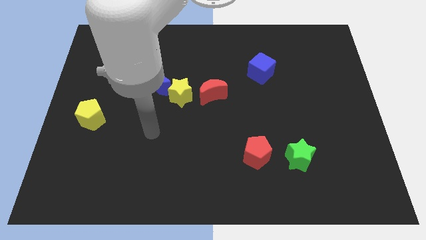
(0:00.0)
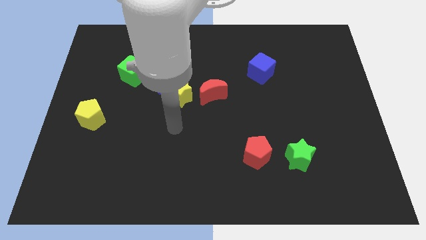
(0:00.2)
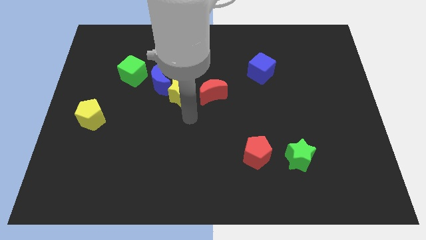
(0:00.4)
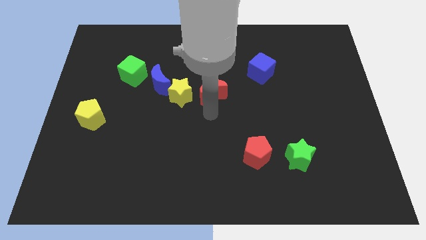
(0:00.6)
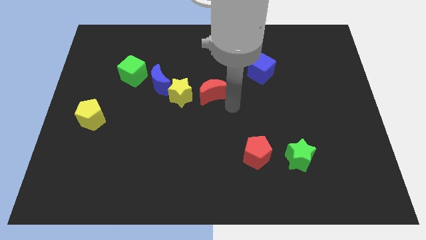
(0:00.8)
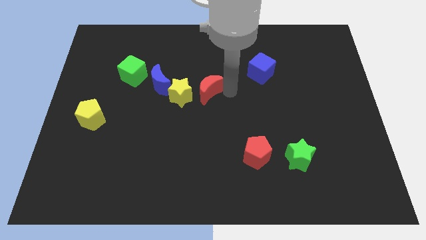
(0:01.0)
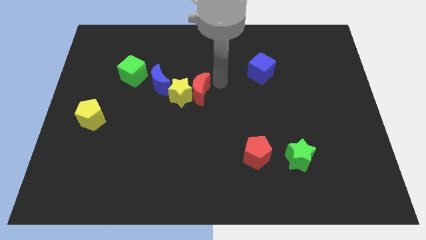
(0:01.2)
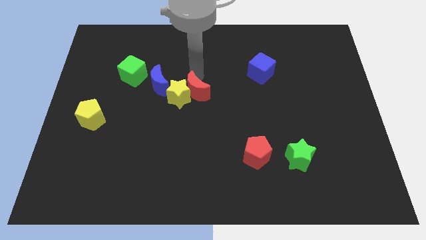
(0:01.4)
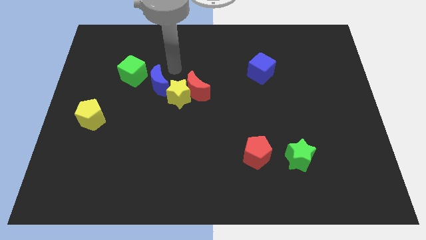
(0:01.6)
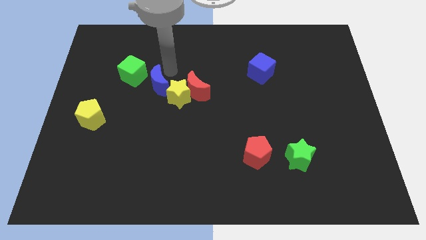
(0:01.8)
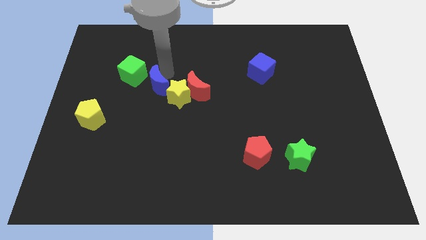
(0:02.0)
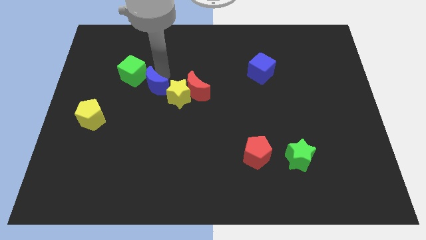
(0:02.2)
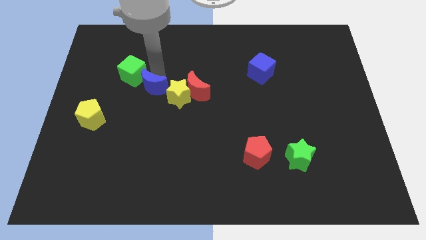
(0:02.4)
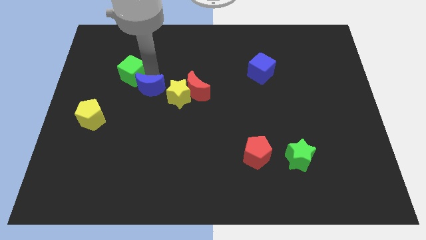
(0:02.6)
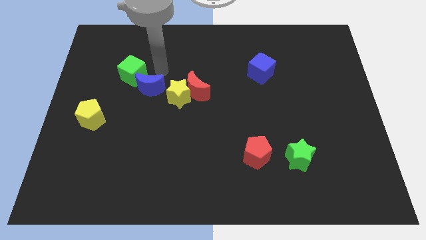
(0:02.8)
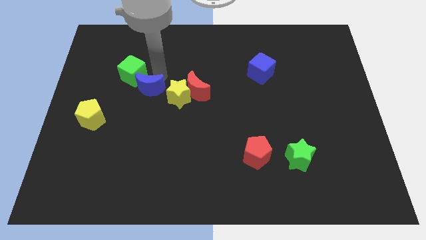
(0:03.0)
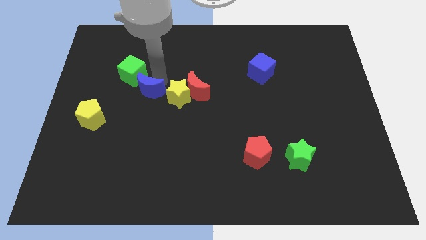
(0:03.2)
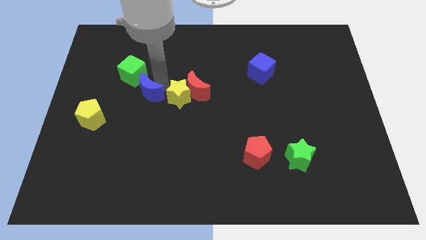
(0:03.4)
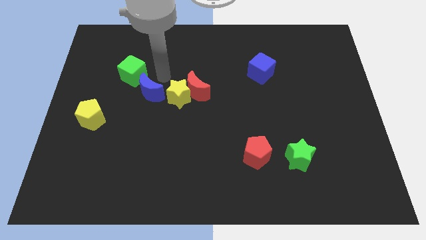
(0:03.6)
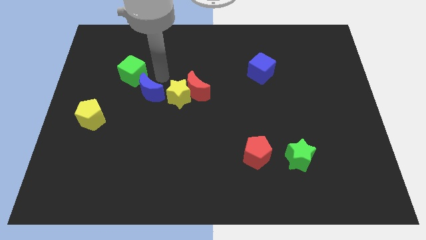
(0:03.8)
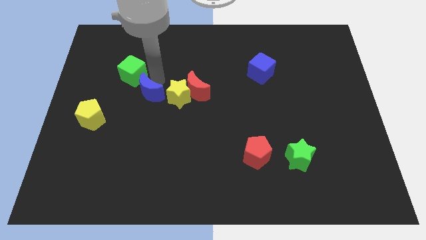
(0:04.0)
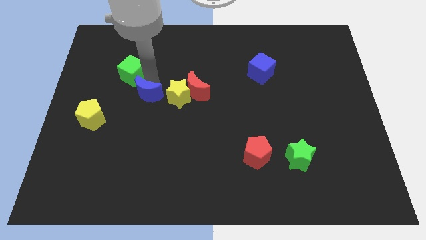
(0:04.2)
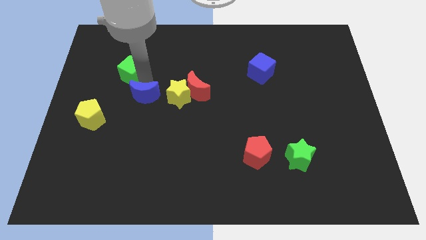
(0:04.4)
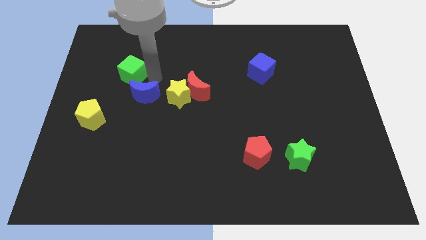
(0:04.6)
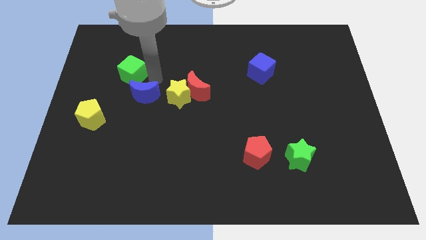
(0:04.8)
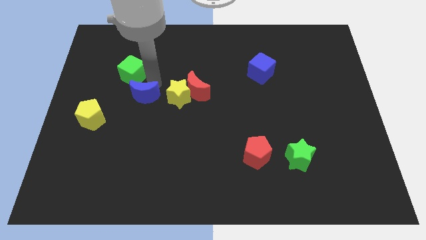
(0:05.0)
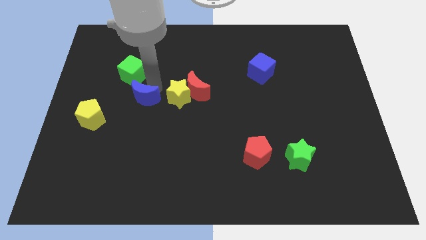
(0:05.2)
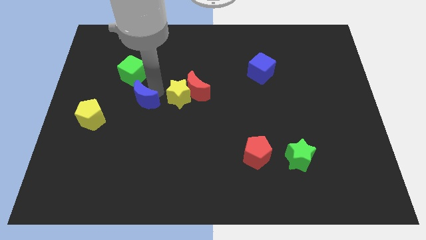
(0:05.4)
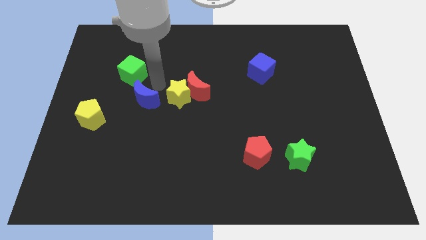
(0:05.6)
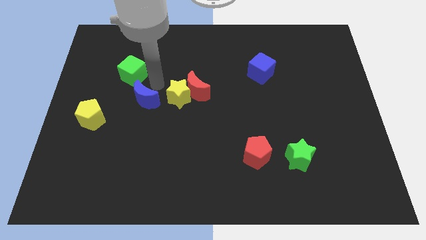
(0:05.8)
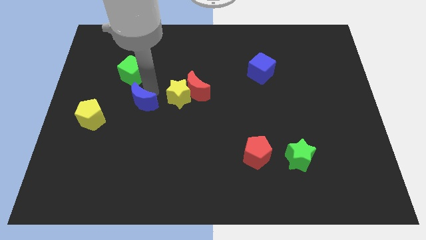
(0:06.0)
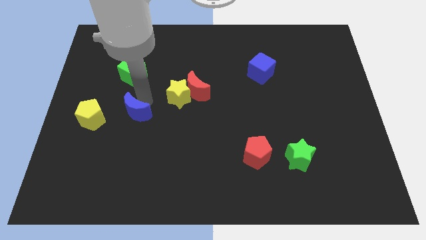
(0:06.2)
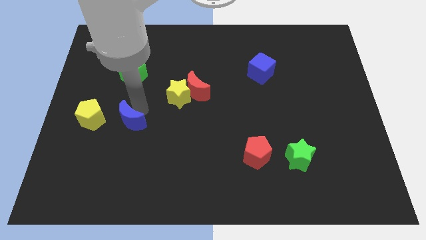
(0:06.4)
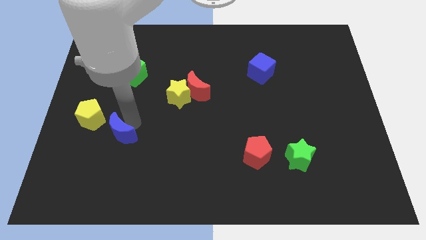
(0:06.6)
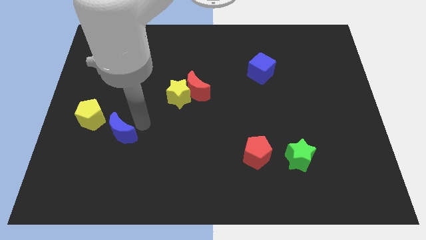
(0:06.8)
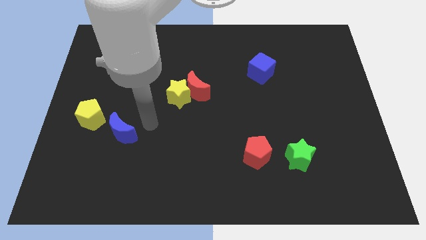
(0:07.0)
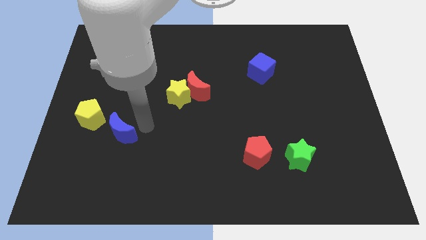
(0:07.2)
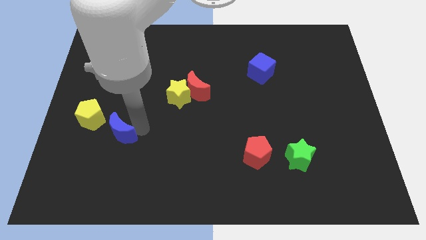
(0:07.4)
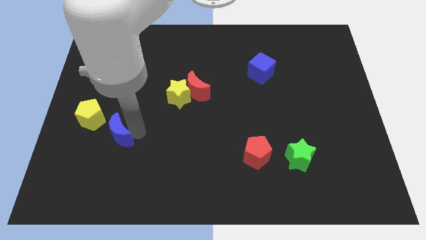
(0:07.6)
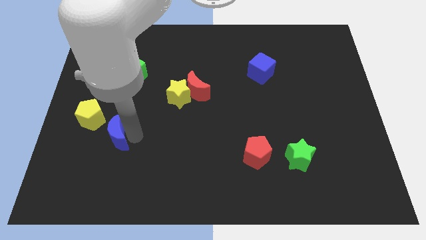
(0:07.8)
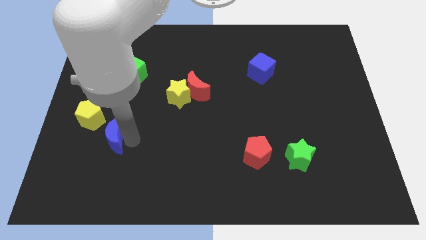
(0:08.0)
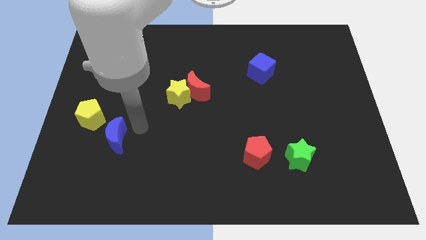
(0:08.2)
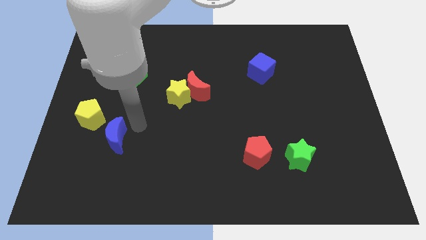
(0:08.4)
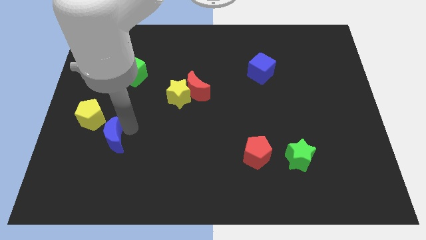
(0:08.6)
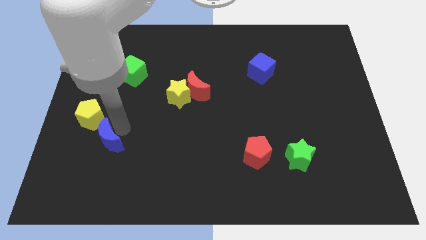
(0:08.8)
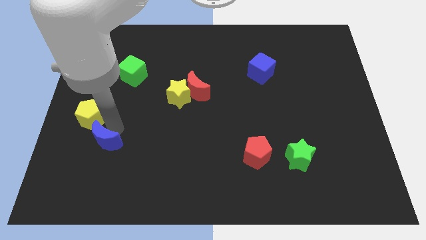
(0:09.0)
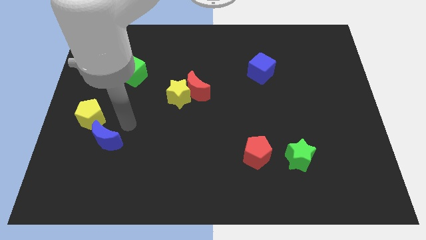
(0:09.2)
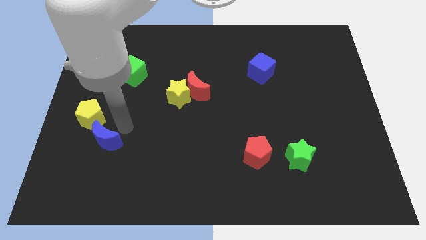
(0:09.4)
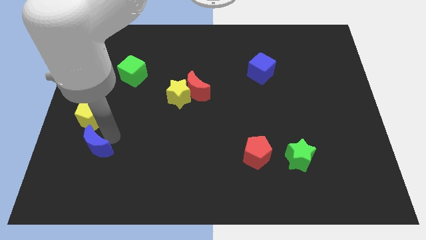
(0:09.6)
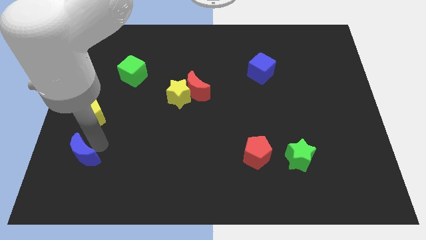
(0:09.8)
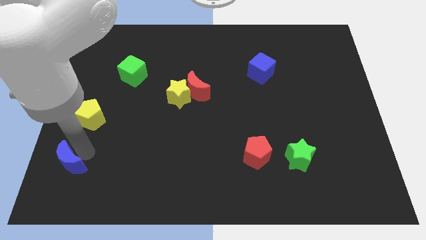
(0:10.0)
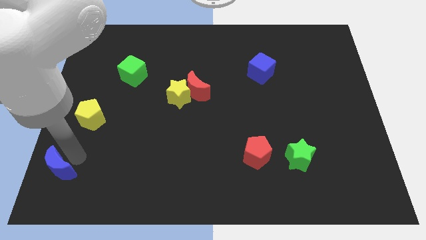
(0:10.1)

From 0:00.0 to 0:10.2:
push the blue moon to the bottom left corner

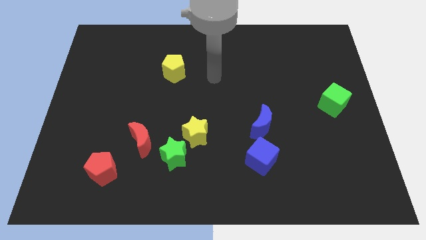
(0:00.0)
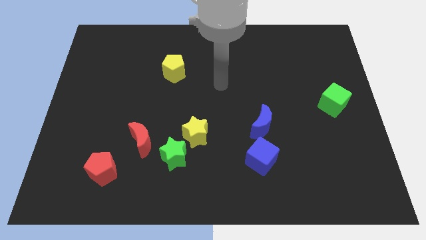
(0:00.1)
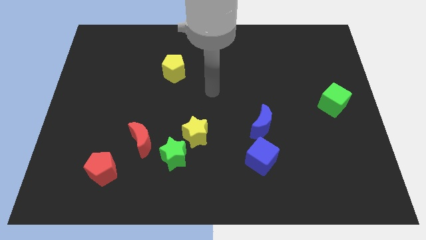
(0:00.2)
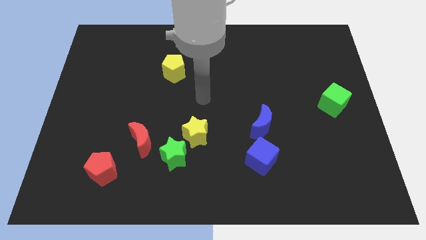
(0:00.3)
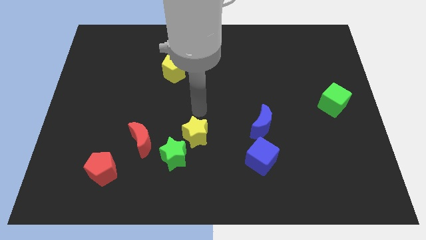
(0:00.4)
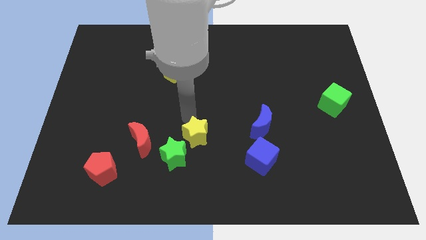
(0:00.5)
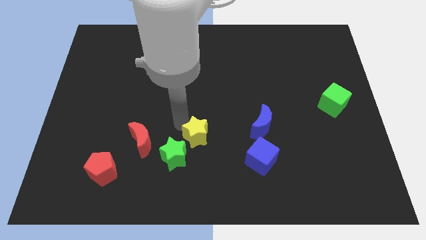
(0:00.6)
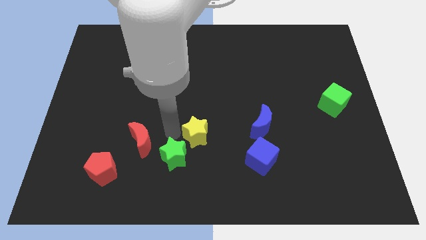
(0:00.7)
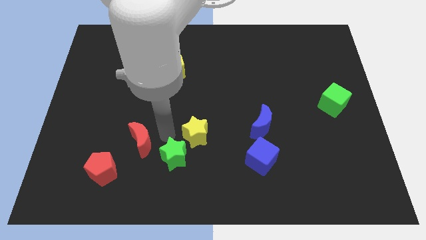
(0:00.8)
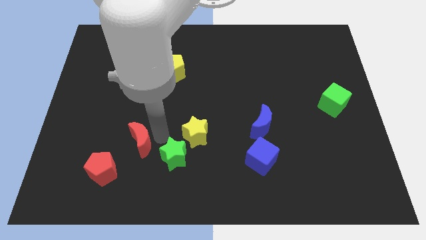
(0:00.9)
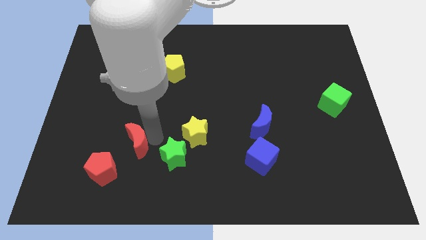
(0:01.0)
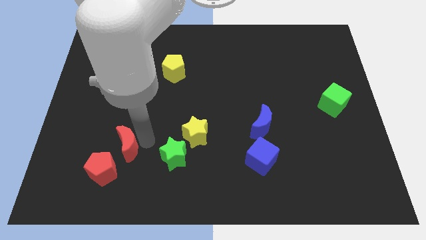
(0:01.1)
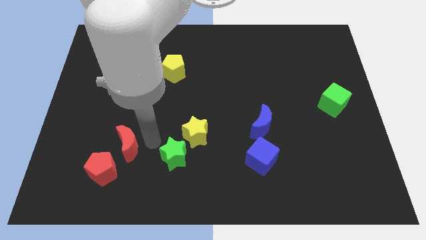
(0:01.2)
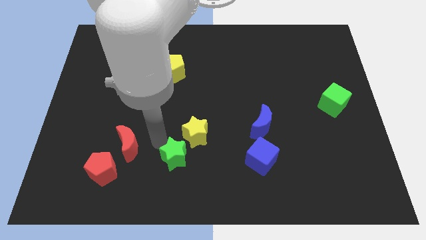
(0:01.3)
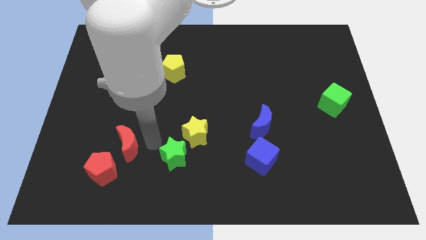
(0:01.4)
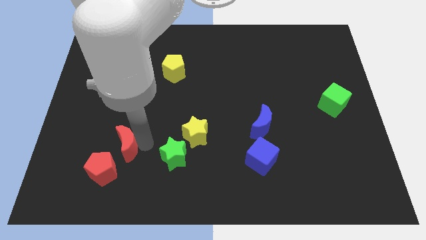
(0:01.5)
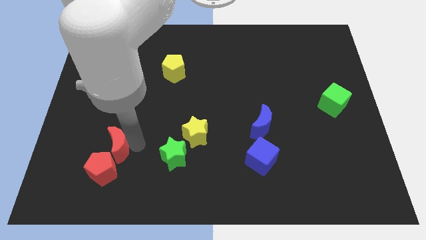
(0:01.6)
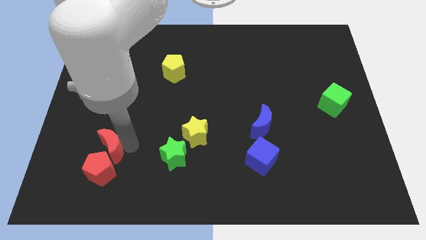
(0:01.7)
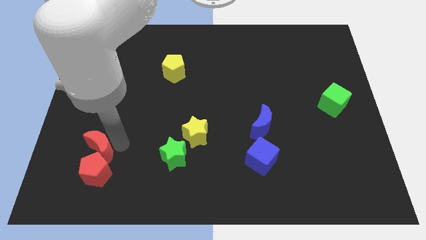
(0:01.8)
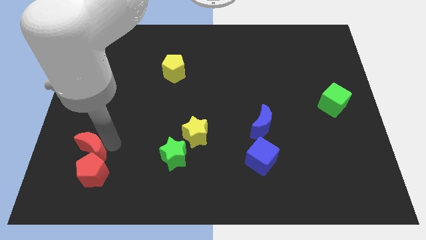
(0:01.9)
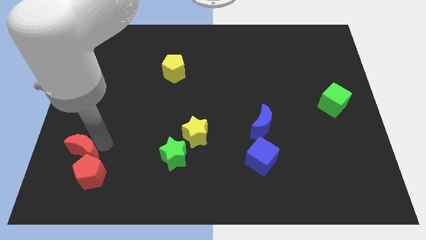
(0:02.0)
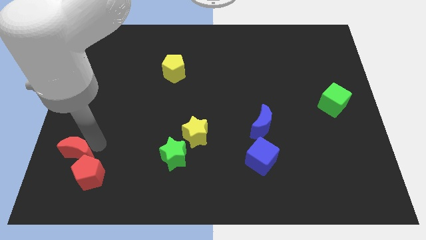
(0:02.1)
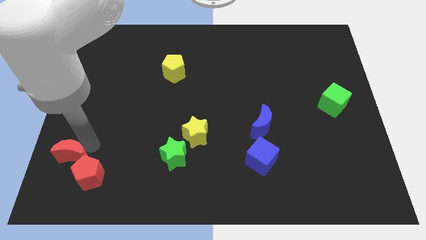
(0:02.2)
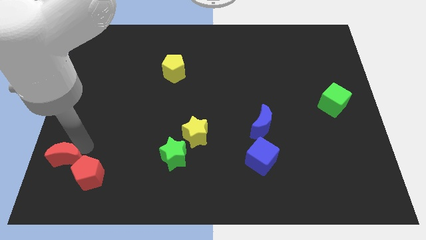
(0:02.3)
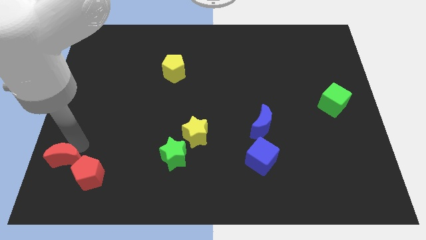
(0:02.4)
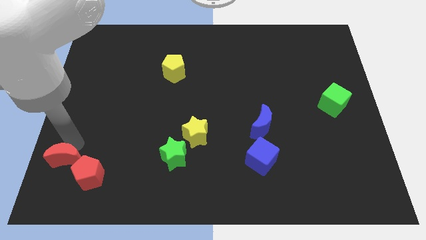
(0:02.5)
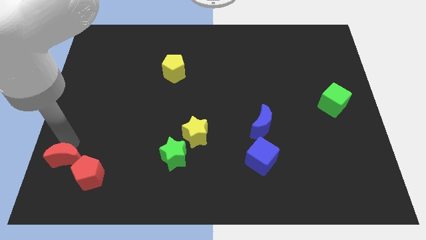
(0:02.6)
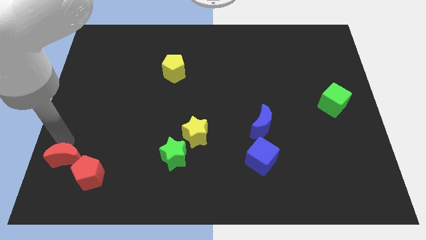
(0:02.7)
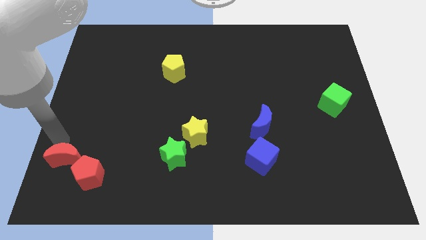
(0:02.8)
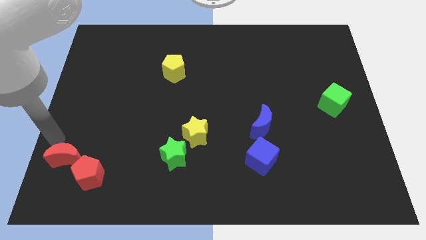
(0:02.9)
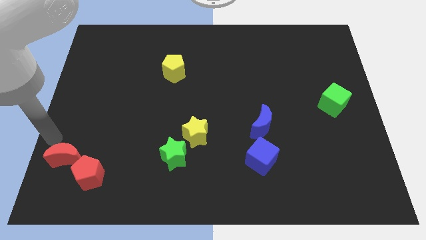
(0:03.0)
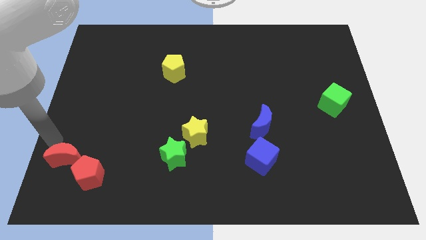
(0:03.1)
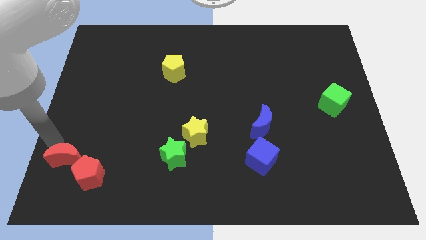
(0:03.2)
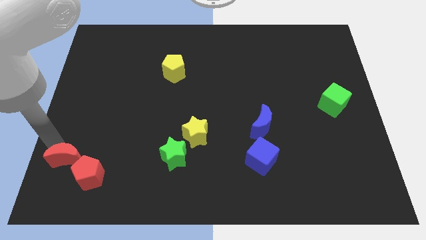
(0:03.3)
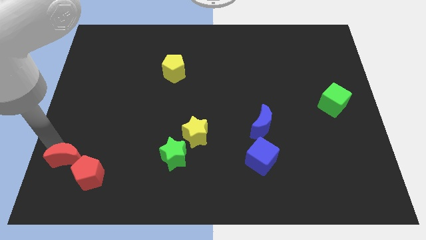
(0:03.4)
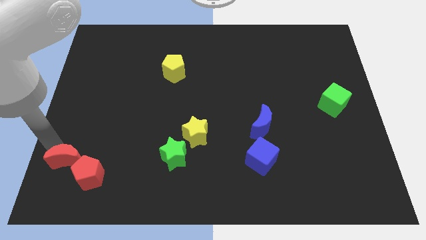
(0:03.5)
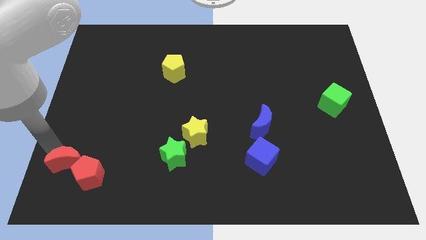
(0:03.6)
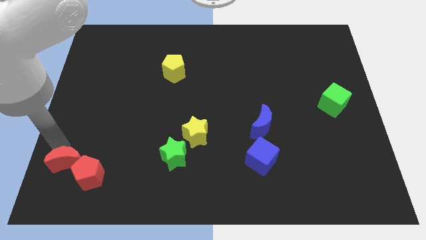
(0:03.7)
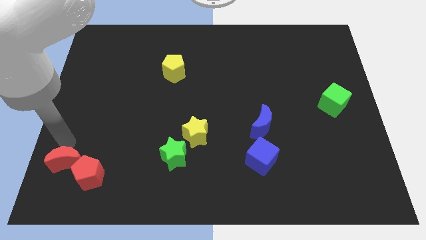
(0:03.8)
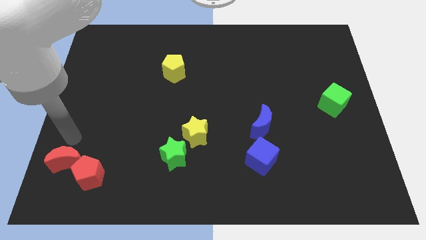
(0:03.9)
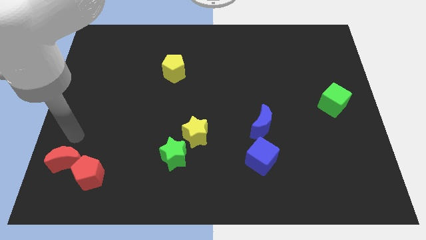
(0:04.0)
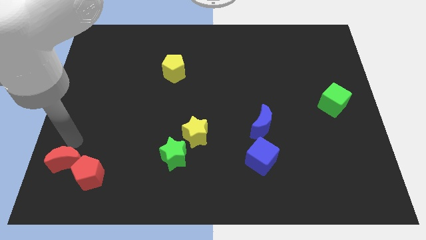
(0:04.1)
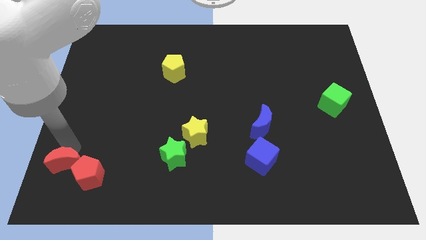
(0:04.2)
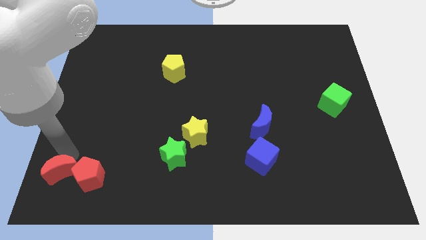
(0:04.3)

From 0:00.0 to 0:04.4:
put the red moon to the bottom left of the board
